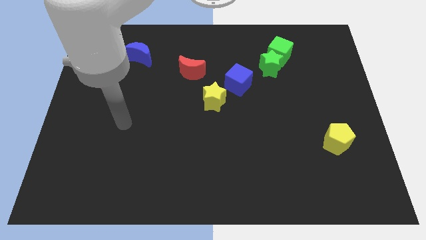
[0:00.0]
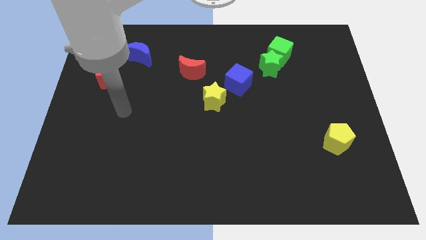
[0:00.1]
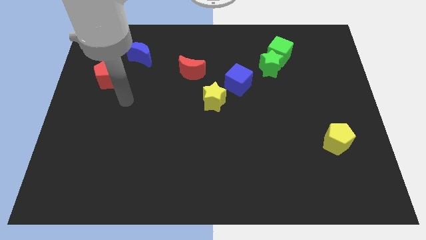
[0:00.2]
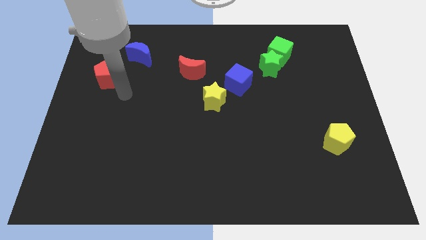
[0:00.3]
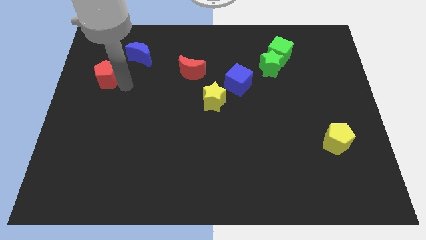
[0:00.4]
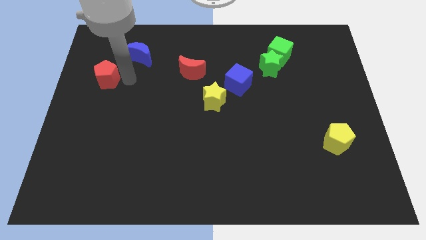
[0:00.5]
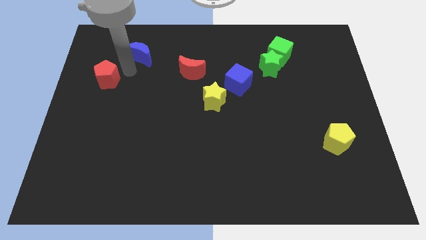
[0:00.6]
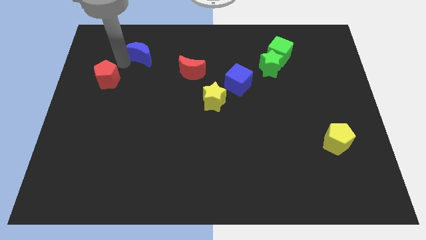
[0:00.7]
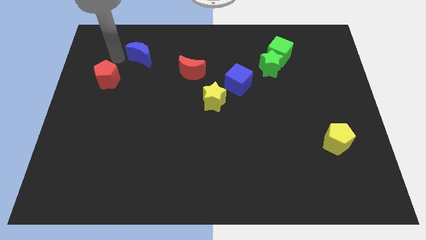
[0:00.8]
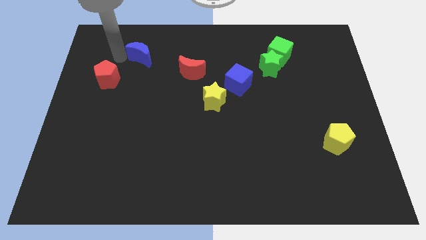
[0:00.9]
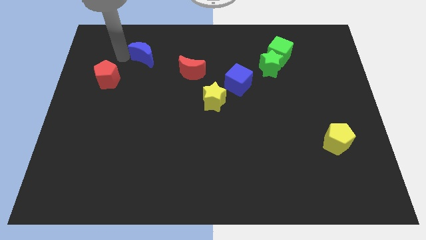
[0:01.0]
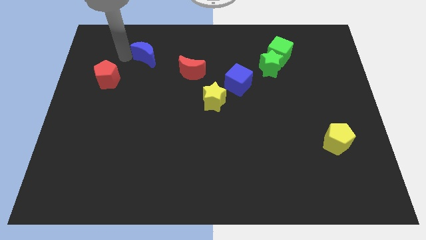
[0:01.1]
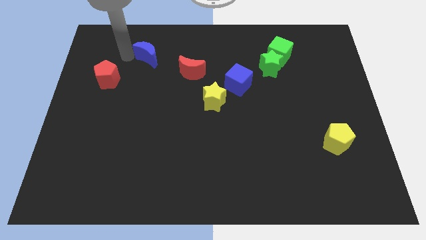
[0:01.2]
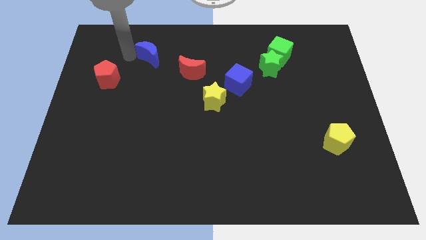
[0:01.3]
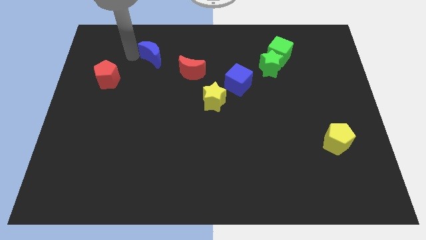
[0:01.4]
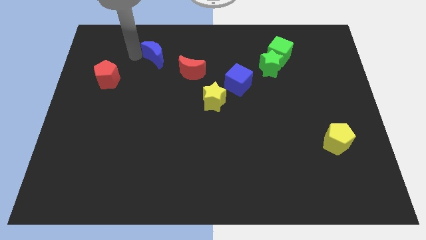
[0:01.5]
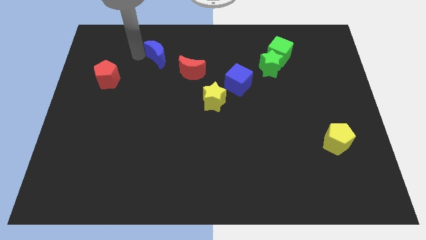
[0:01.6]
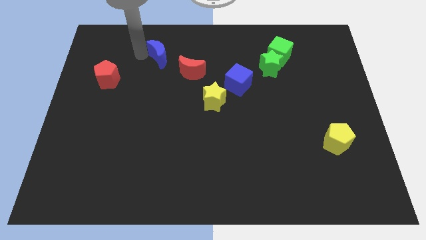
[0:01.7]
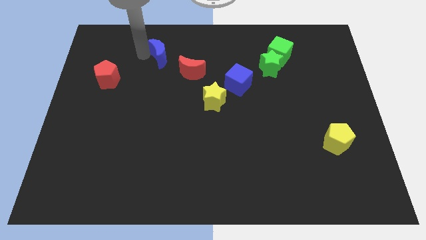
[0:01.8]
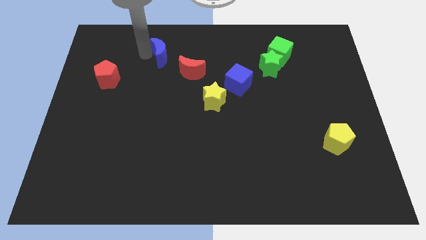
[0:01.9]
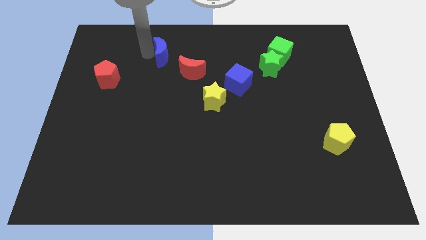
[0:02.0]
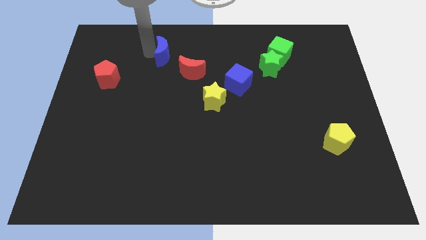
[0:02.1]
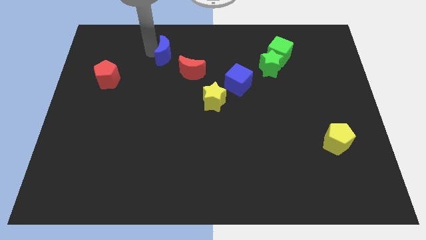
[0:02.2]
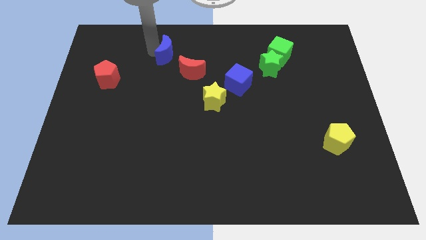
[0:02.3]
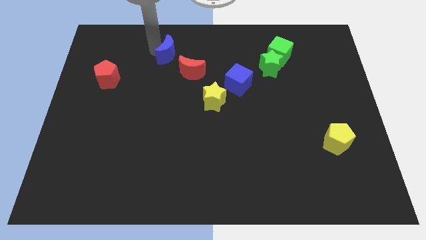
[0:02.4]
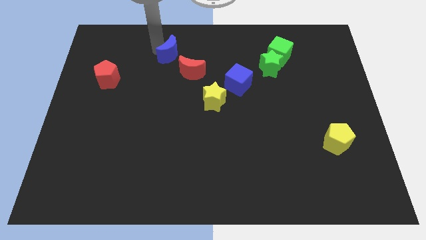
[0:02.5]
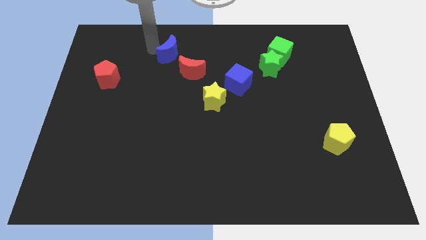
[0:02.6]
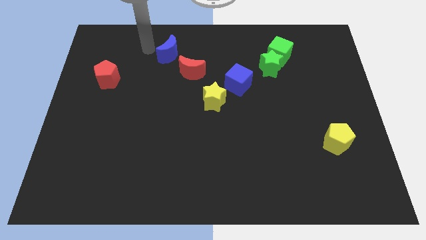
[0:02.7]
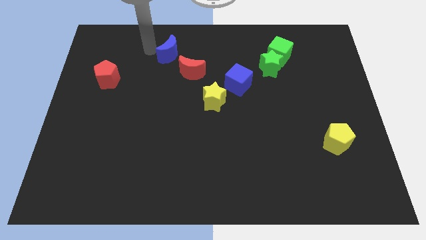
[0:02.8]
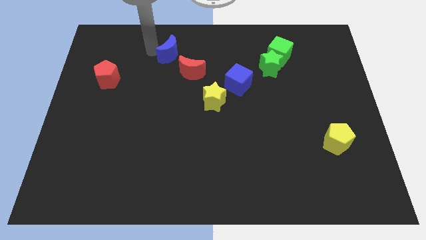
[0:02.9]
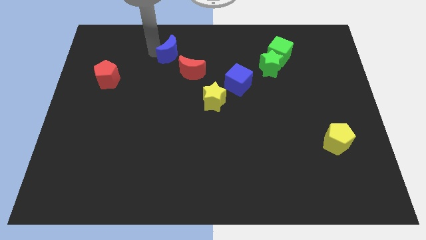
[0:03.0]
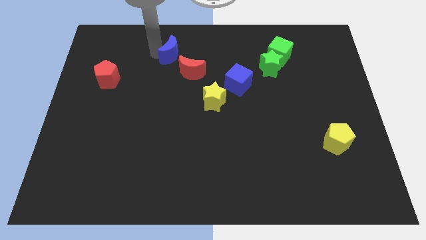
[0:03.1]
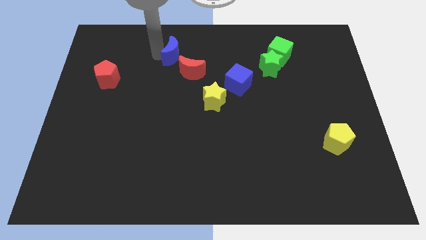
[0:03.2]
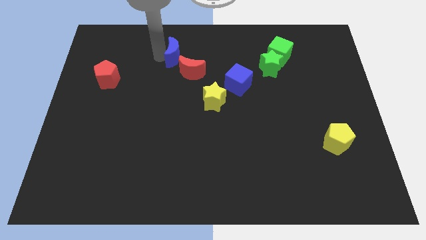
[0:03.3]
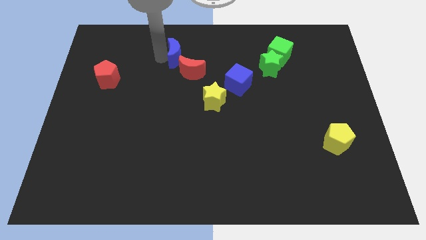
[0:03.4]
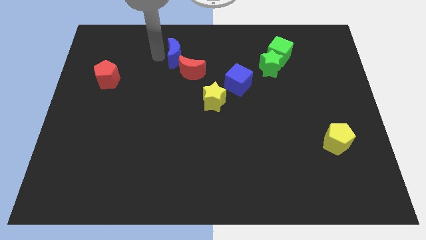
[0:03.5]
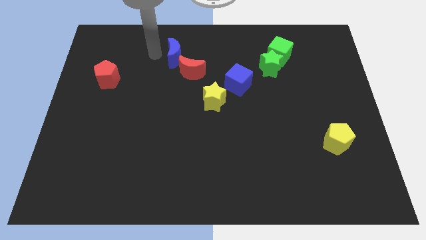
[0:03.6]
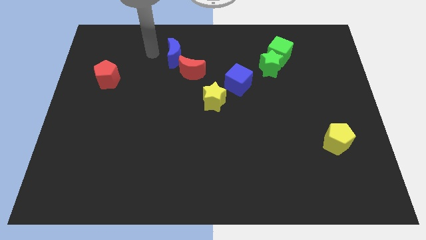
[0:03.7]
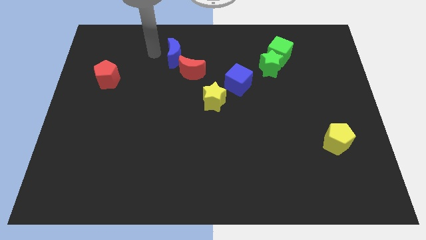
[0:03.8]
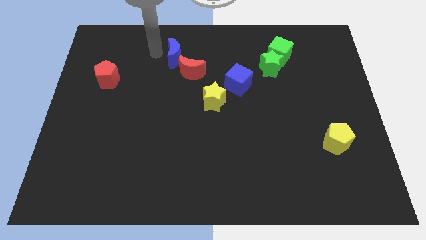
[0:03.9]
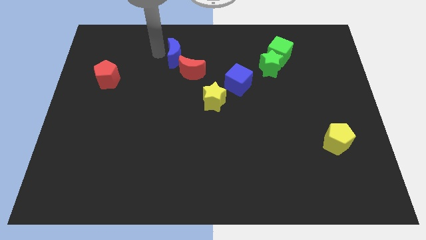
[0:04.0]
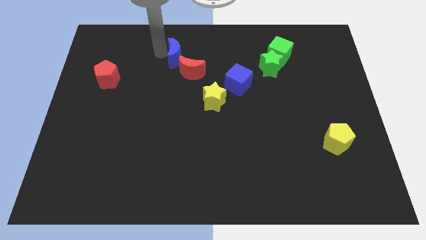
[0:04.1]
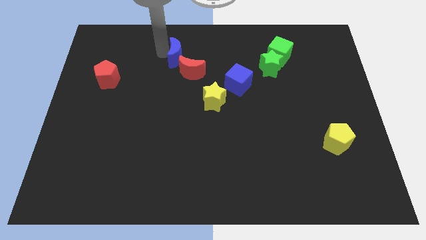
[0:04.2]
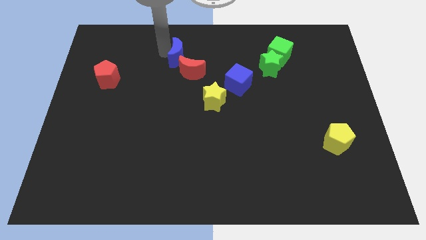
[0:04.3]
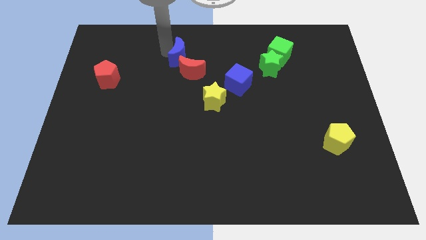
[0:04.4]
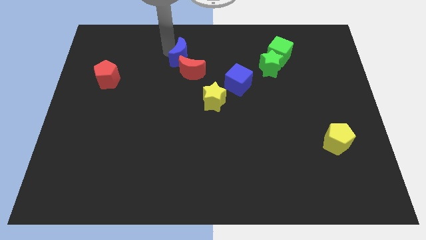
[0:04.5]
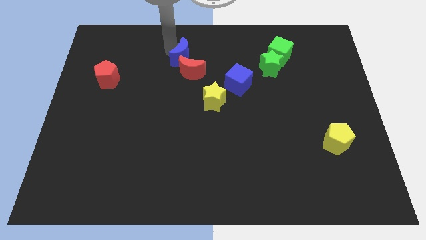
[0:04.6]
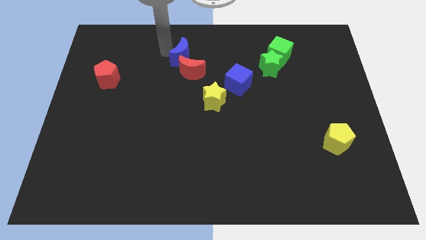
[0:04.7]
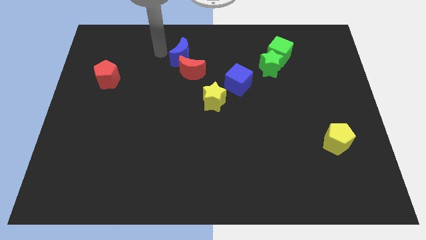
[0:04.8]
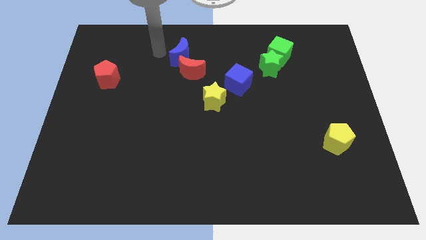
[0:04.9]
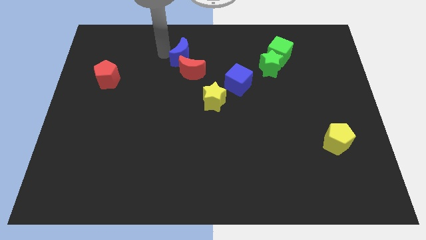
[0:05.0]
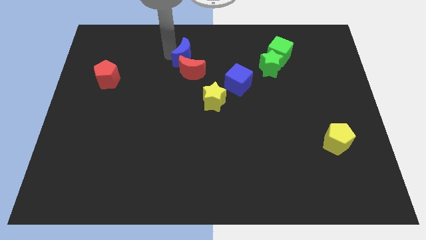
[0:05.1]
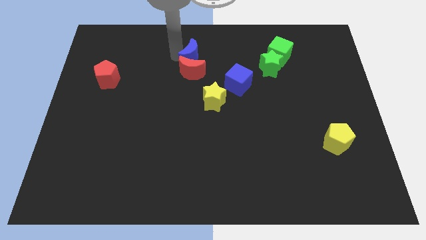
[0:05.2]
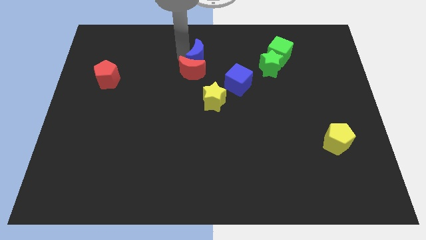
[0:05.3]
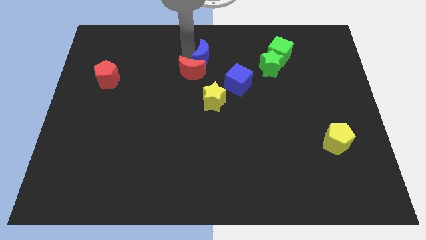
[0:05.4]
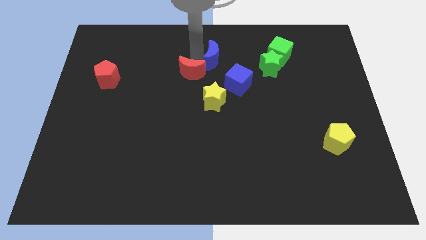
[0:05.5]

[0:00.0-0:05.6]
move the blue moon left of the green star

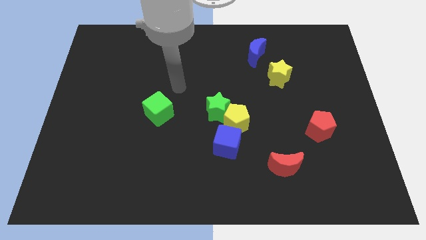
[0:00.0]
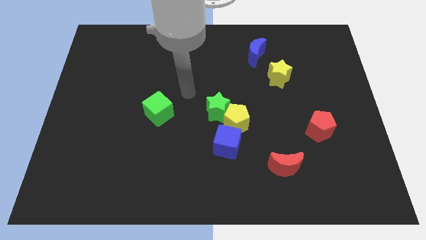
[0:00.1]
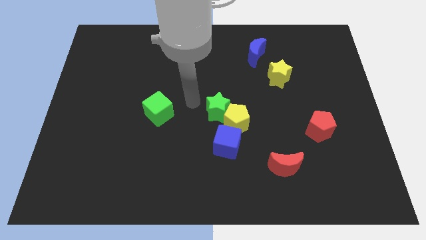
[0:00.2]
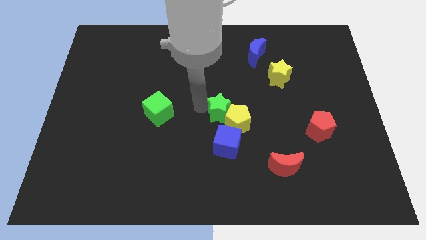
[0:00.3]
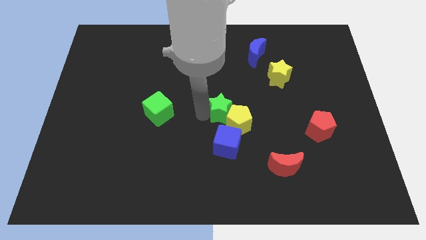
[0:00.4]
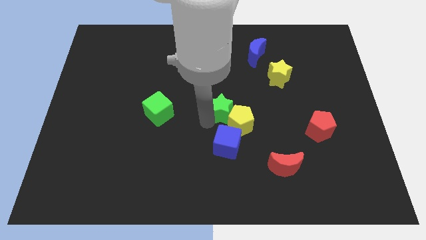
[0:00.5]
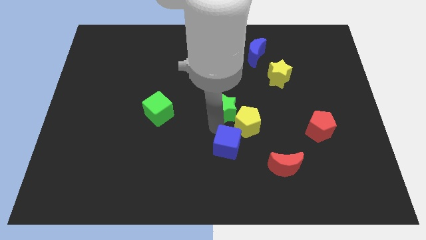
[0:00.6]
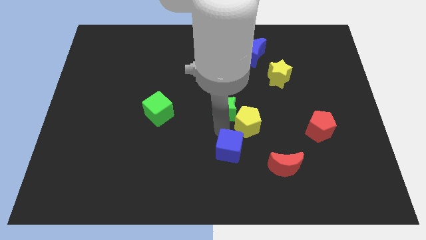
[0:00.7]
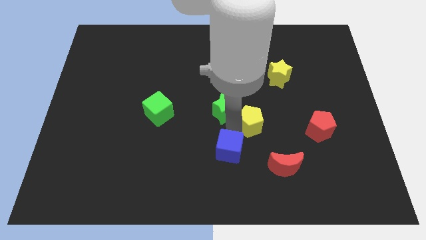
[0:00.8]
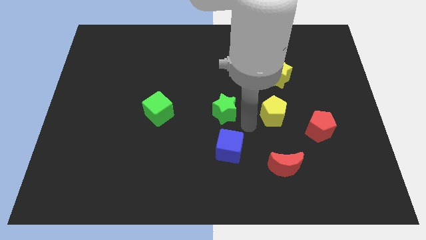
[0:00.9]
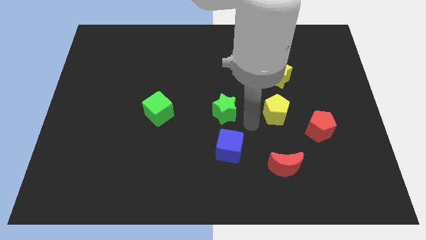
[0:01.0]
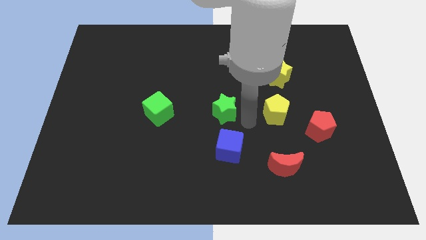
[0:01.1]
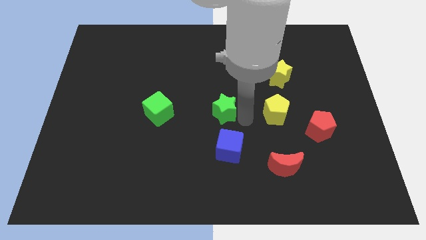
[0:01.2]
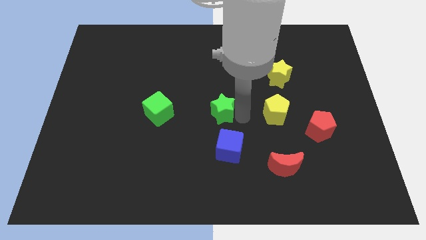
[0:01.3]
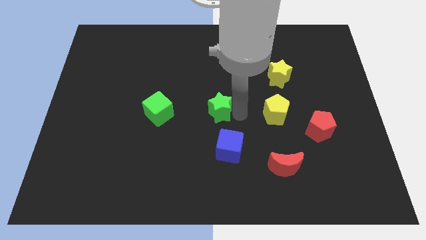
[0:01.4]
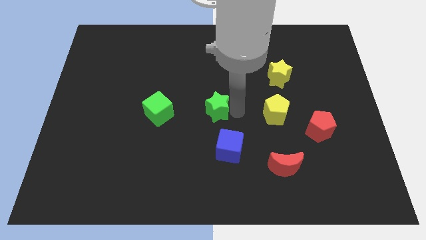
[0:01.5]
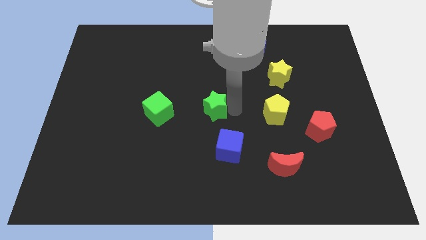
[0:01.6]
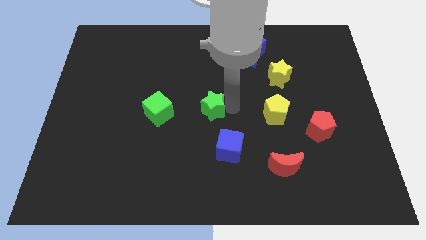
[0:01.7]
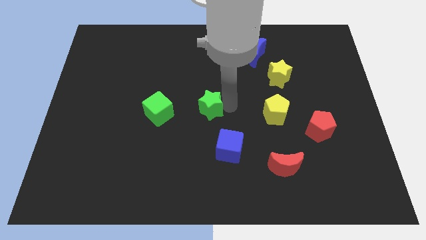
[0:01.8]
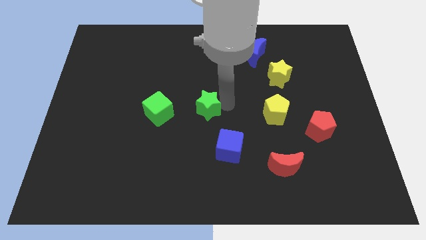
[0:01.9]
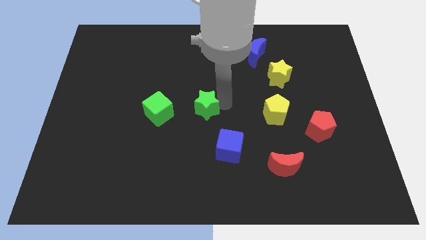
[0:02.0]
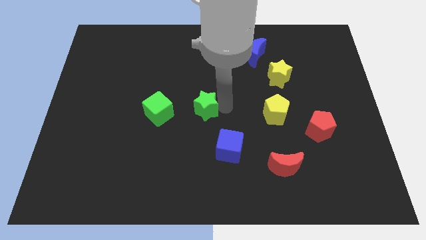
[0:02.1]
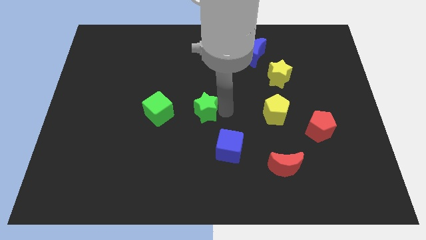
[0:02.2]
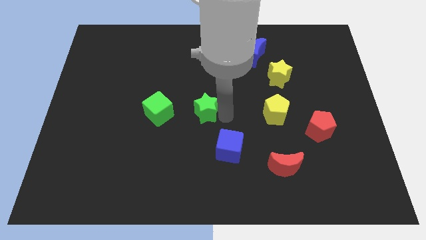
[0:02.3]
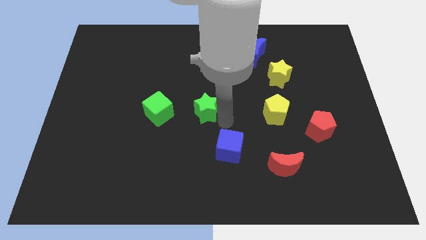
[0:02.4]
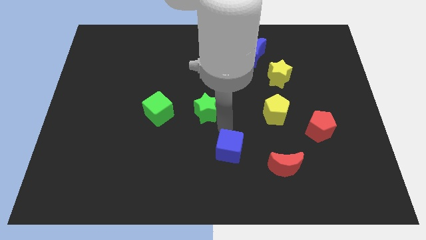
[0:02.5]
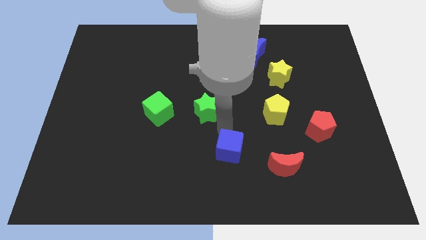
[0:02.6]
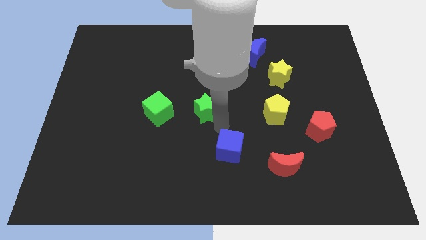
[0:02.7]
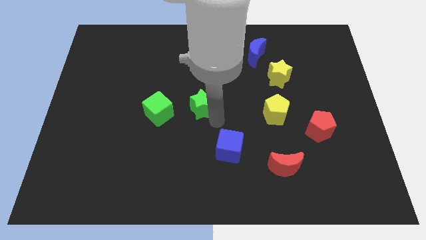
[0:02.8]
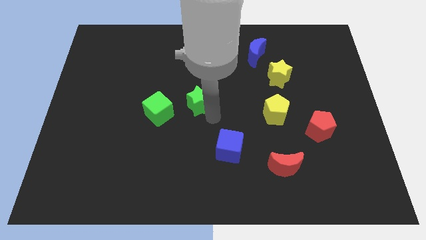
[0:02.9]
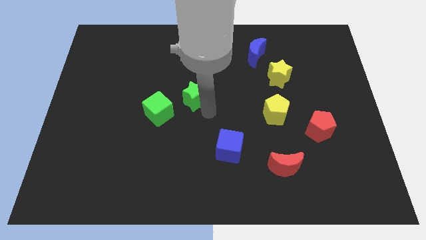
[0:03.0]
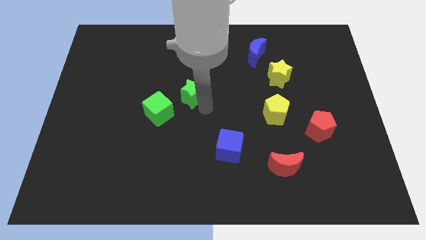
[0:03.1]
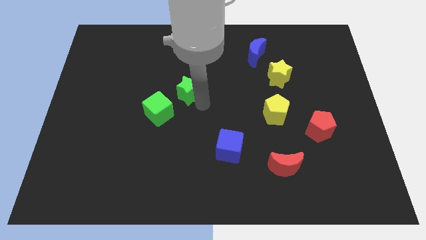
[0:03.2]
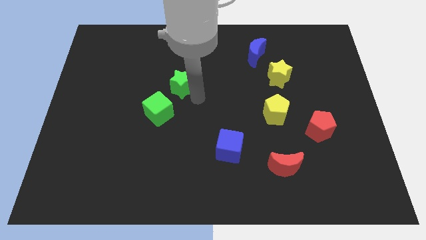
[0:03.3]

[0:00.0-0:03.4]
move the green star to the top side of the green cube
